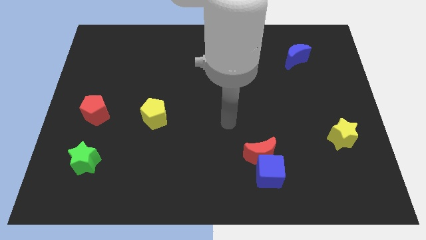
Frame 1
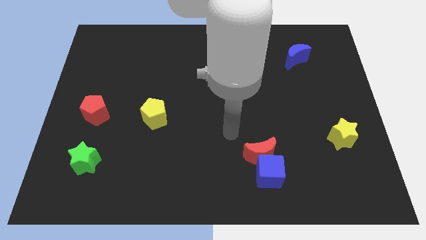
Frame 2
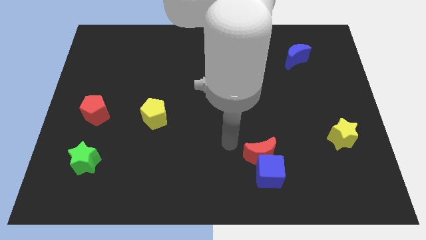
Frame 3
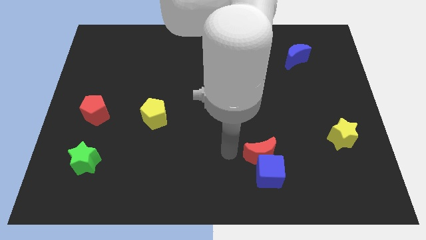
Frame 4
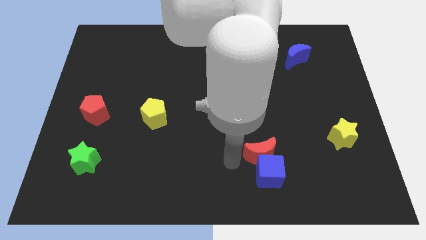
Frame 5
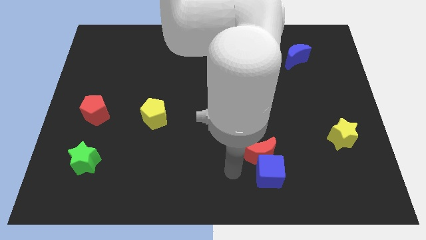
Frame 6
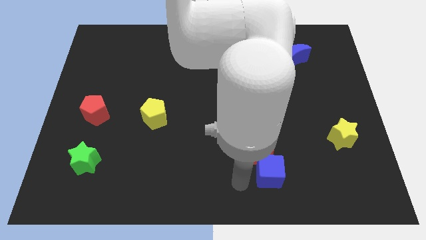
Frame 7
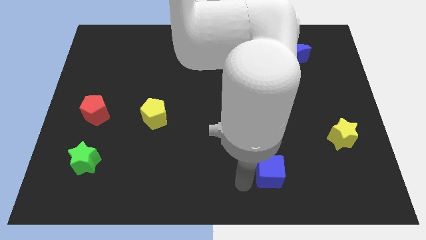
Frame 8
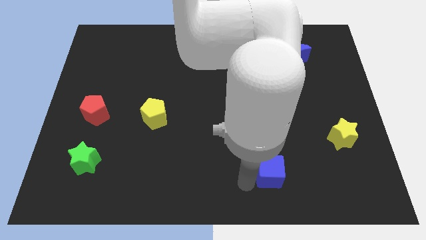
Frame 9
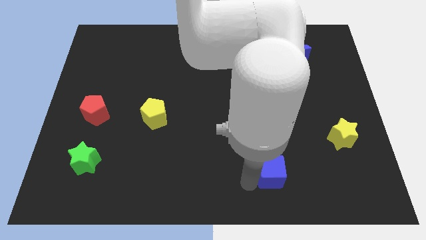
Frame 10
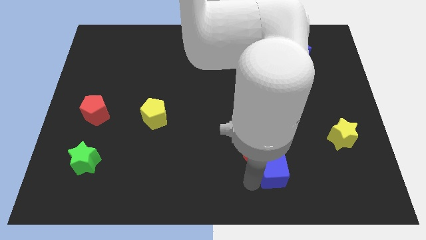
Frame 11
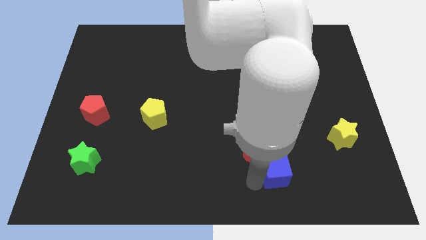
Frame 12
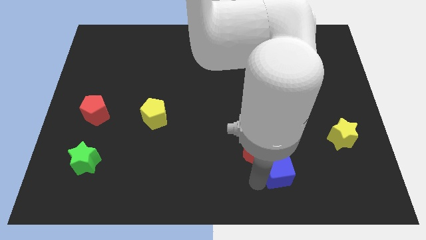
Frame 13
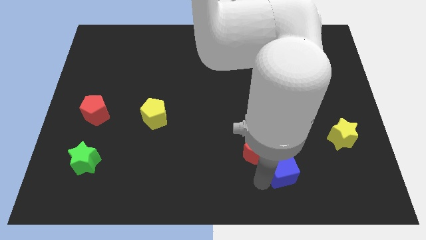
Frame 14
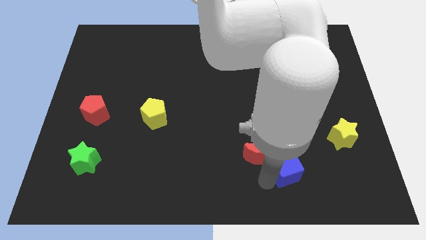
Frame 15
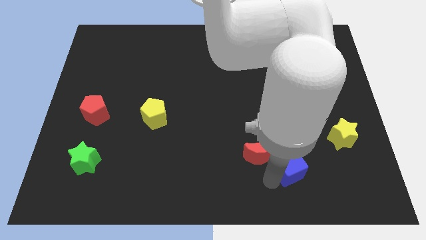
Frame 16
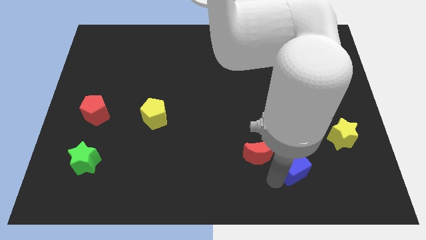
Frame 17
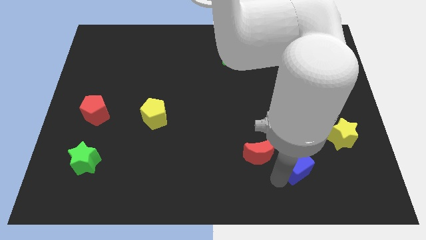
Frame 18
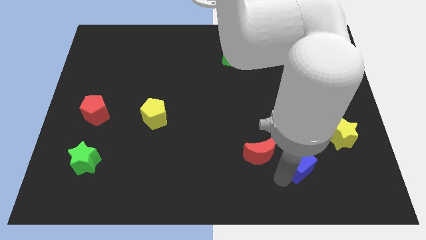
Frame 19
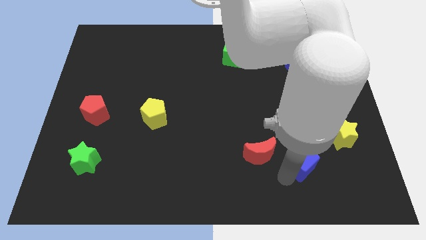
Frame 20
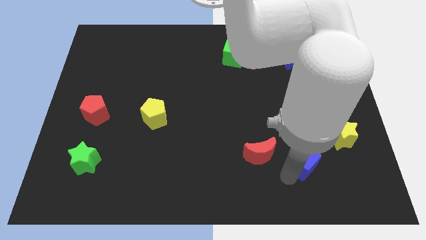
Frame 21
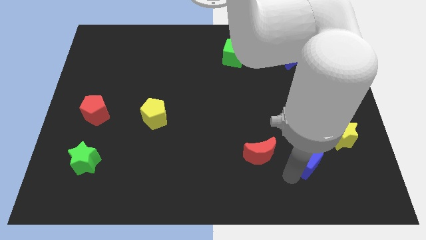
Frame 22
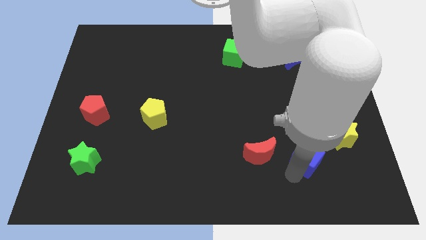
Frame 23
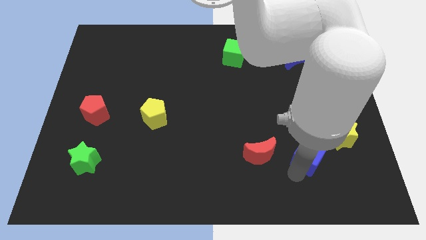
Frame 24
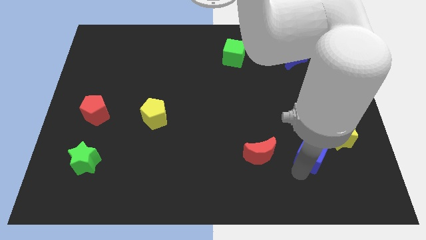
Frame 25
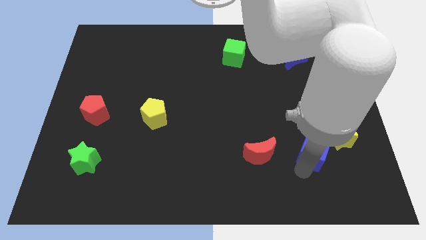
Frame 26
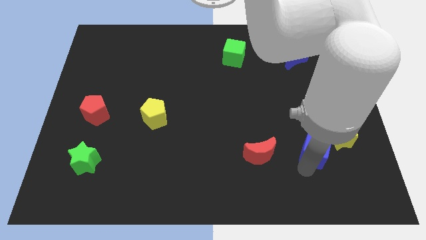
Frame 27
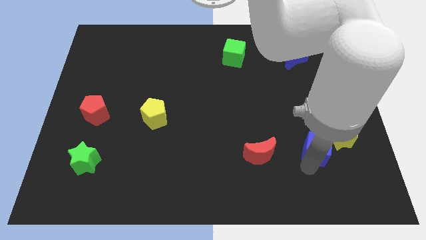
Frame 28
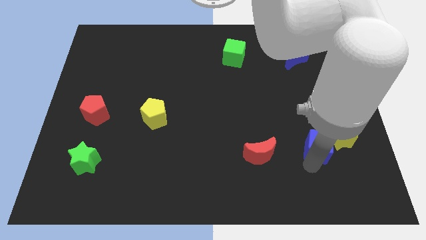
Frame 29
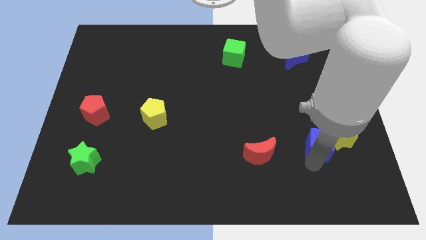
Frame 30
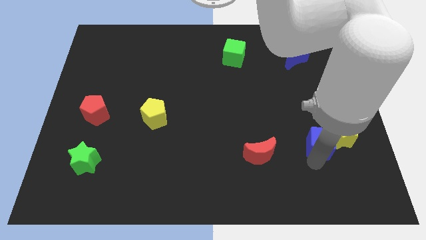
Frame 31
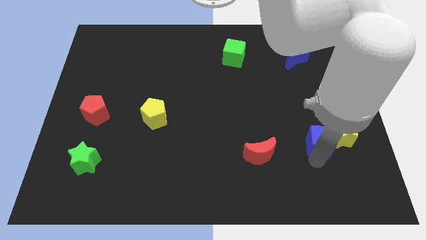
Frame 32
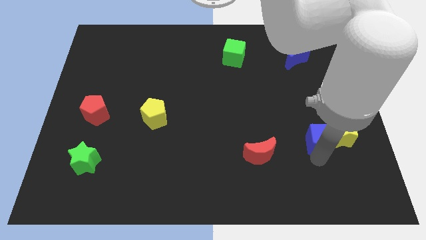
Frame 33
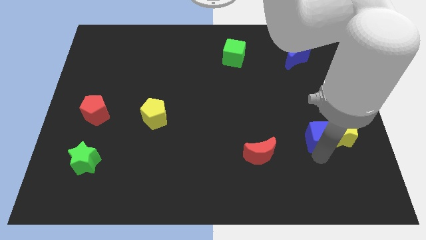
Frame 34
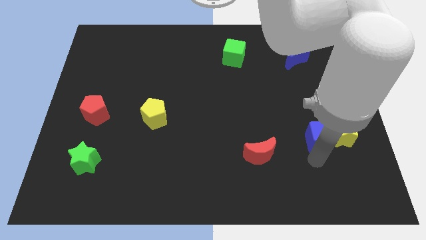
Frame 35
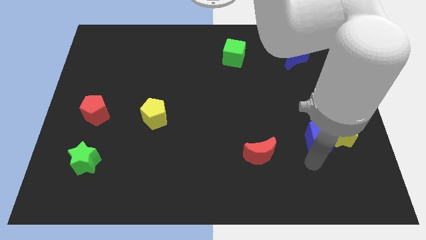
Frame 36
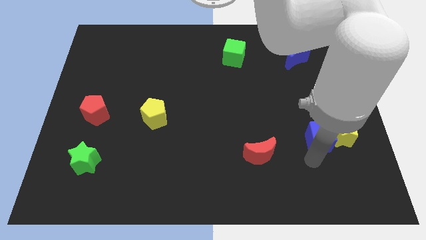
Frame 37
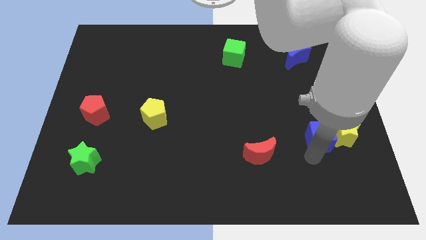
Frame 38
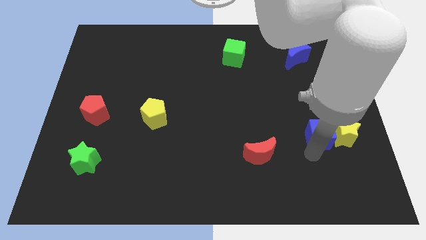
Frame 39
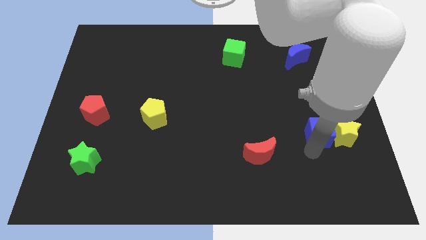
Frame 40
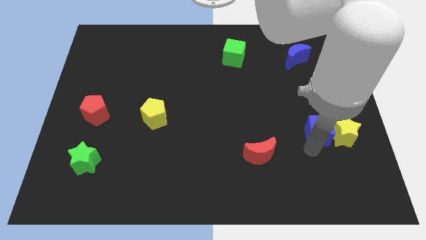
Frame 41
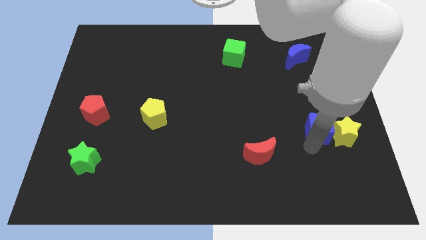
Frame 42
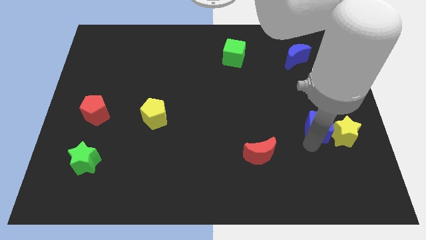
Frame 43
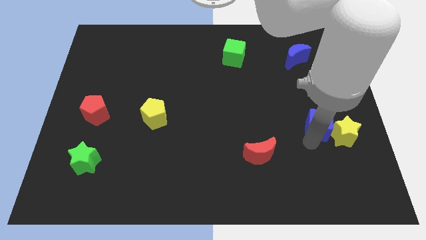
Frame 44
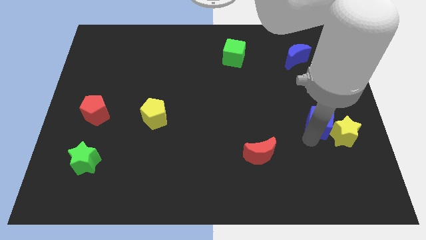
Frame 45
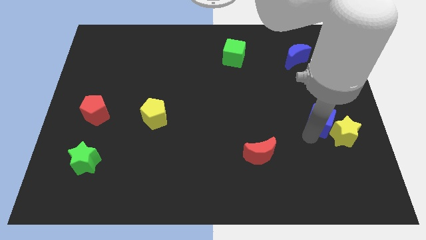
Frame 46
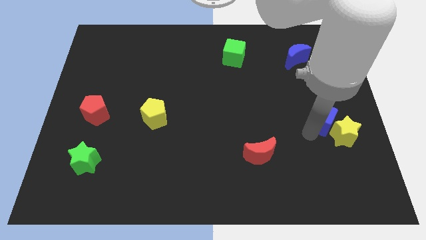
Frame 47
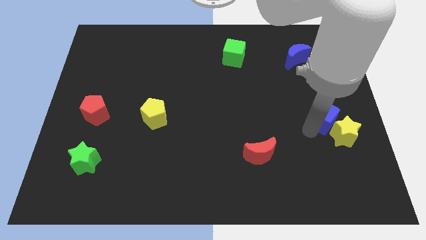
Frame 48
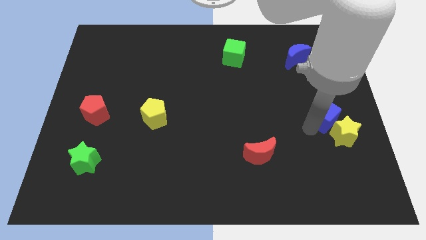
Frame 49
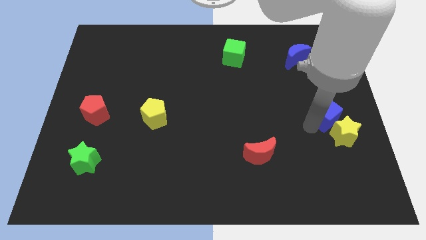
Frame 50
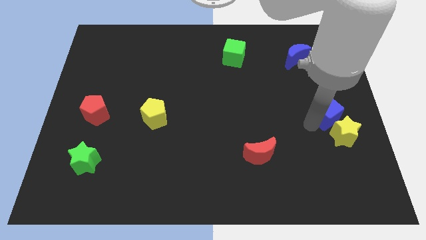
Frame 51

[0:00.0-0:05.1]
put the blue cube to the center right

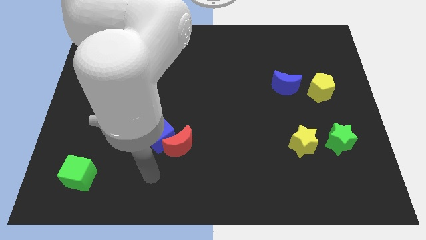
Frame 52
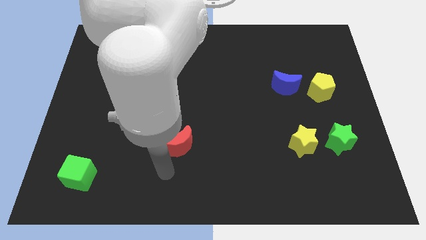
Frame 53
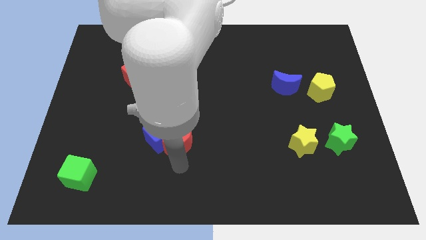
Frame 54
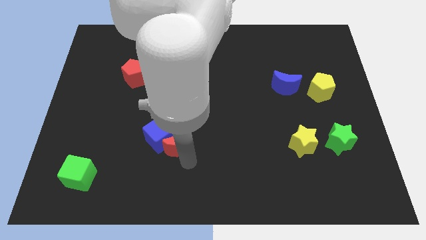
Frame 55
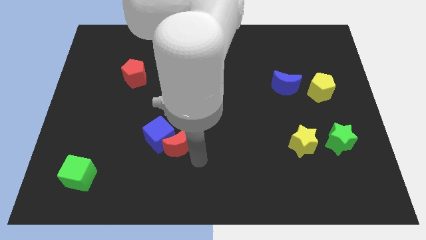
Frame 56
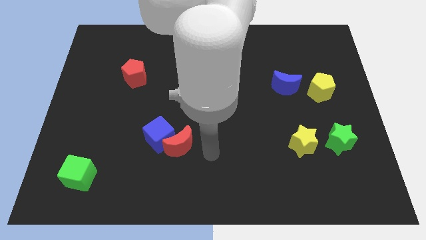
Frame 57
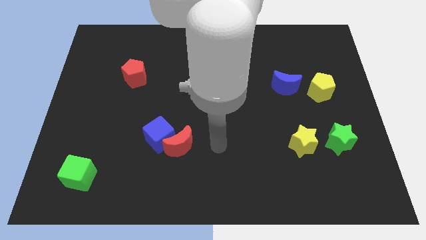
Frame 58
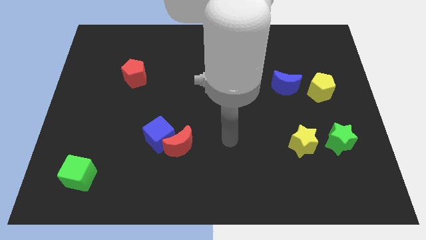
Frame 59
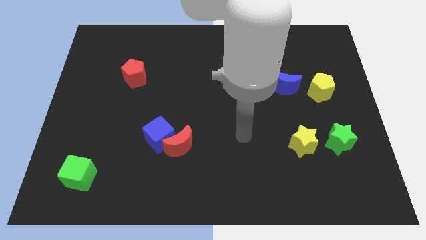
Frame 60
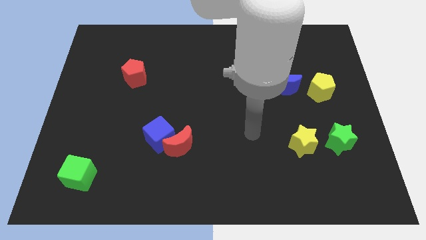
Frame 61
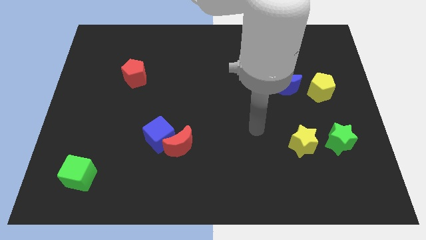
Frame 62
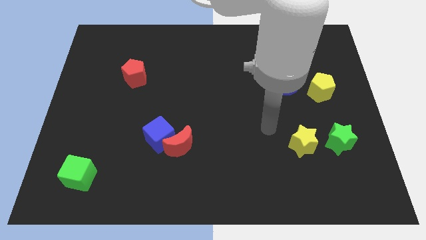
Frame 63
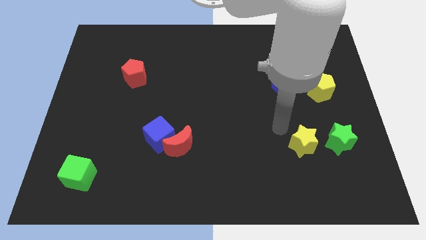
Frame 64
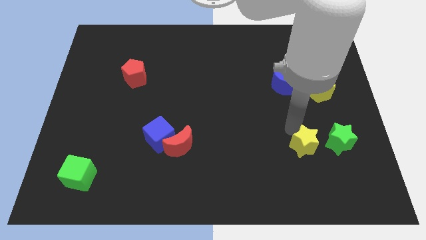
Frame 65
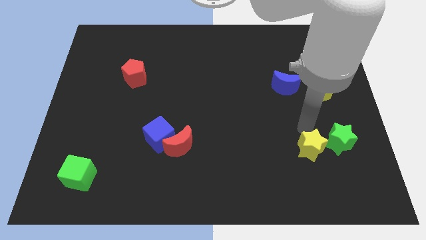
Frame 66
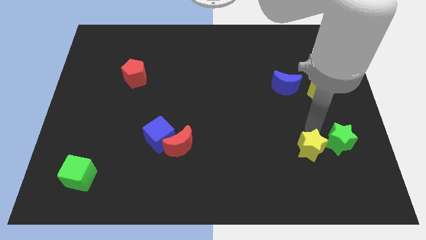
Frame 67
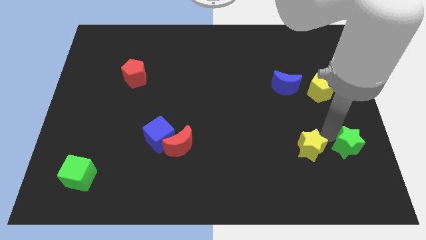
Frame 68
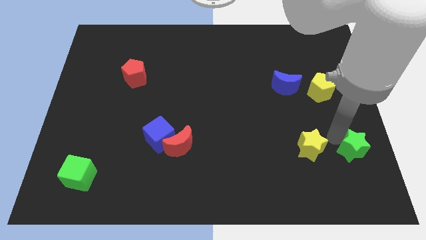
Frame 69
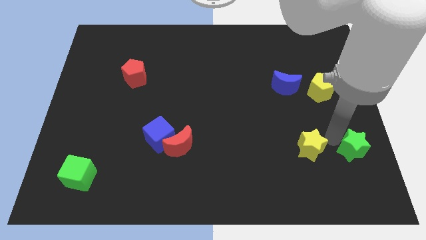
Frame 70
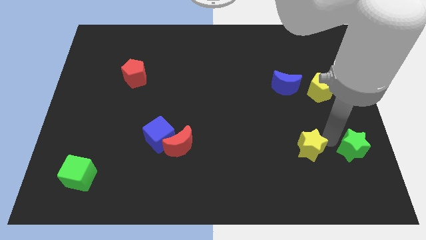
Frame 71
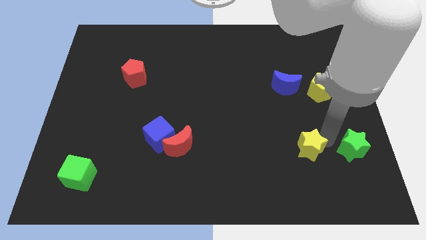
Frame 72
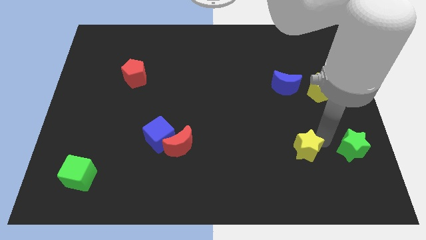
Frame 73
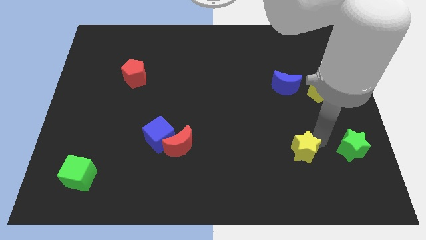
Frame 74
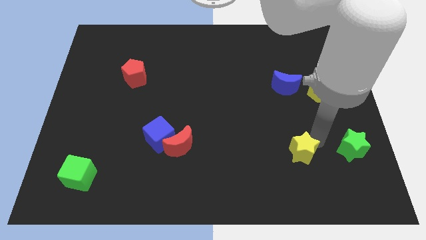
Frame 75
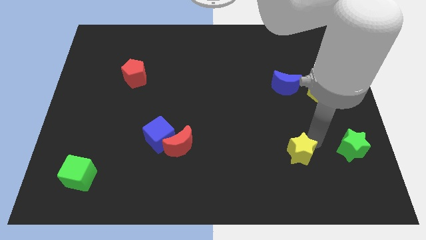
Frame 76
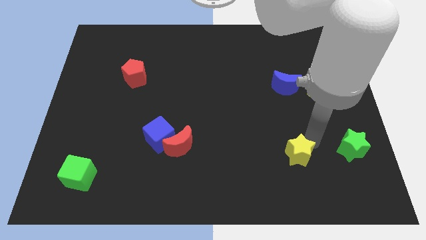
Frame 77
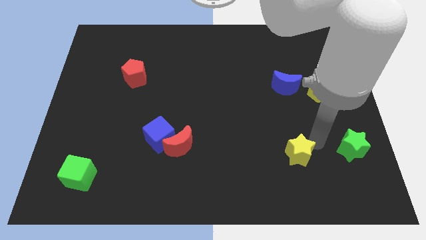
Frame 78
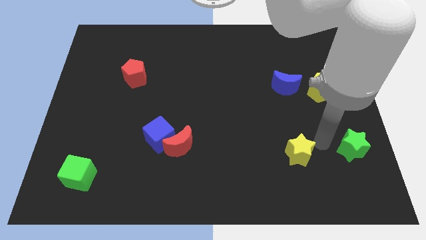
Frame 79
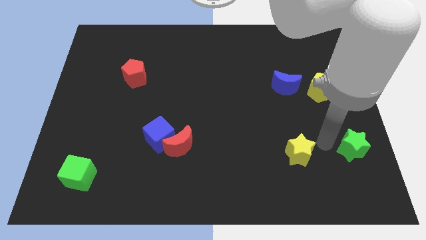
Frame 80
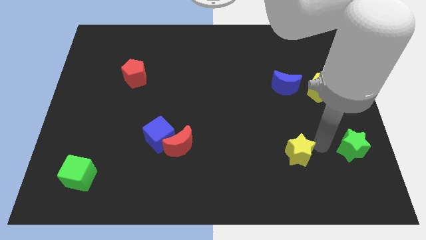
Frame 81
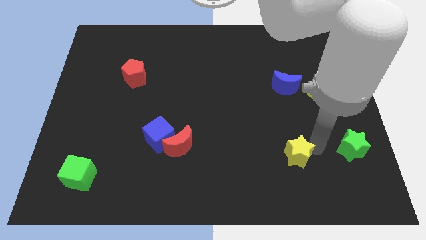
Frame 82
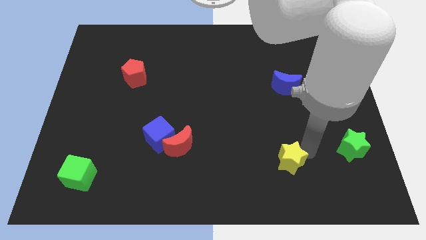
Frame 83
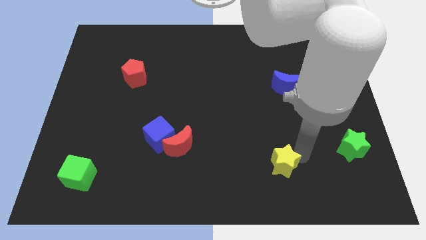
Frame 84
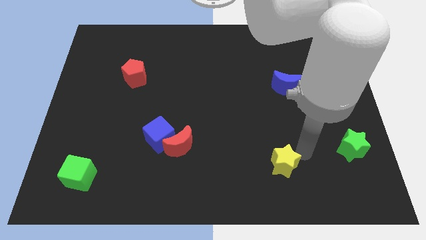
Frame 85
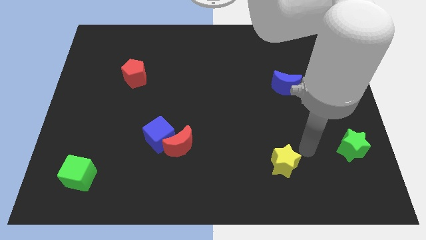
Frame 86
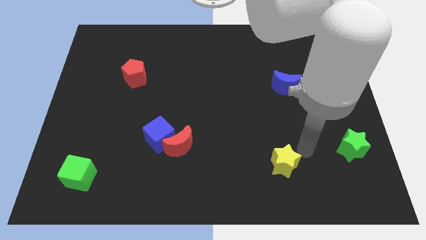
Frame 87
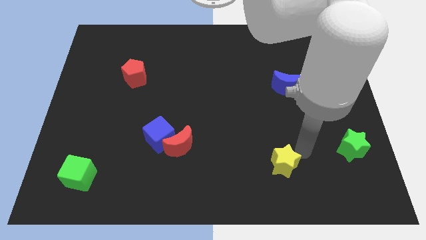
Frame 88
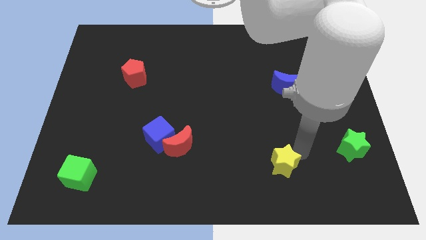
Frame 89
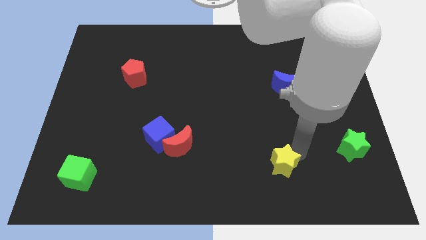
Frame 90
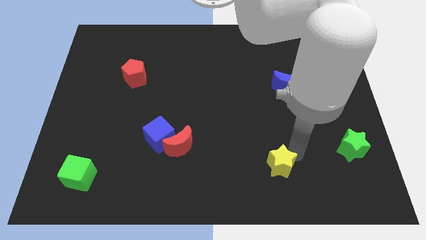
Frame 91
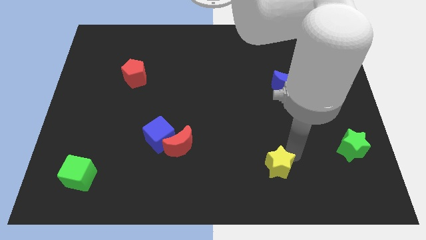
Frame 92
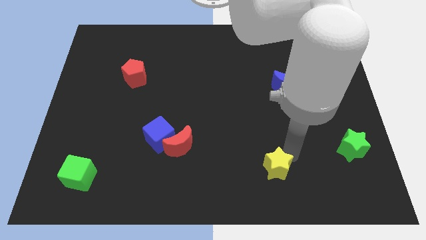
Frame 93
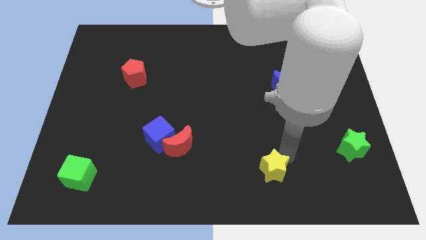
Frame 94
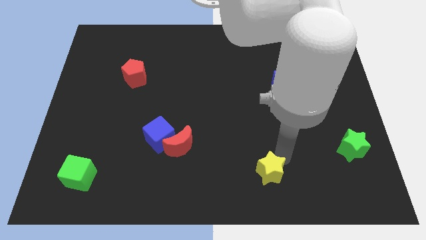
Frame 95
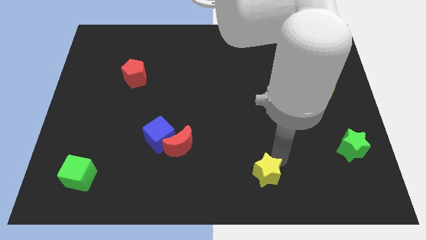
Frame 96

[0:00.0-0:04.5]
push the yellow star to the bottom
